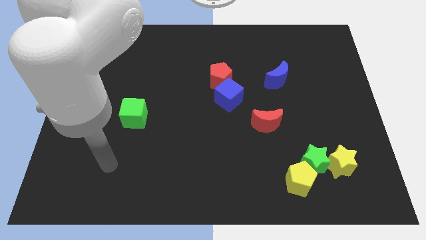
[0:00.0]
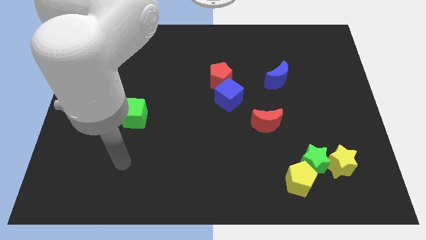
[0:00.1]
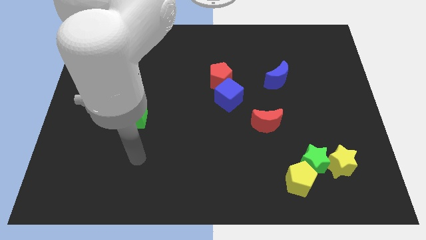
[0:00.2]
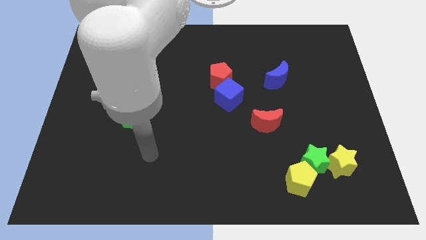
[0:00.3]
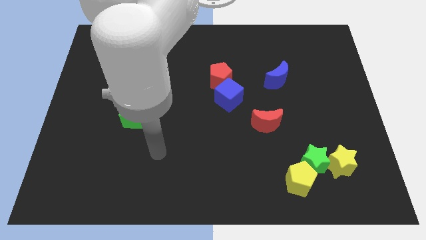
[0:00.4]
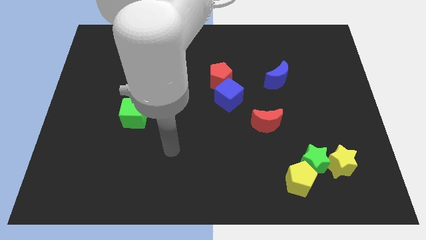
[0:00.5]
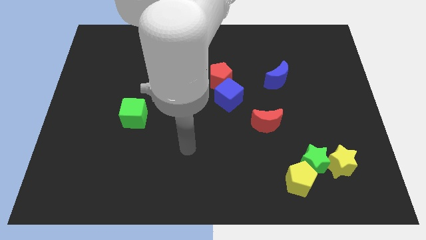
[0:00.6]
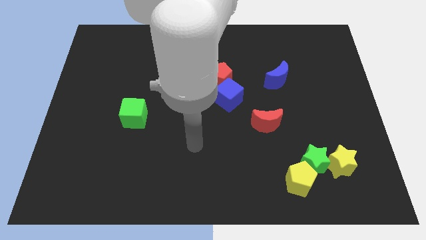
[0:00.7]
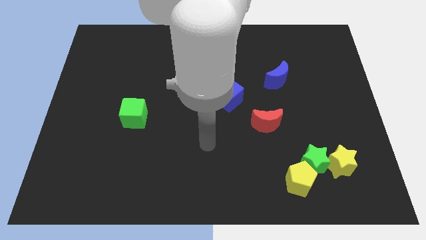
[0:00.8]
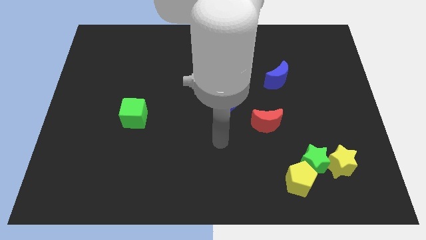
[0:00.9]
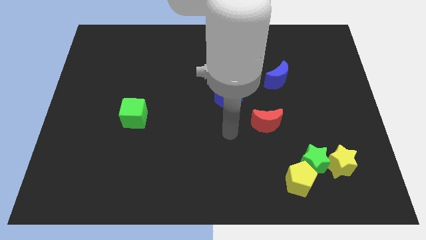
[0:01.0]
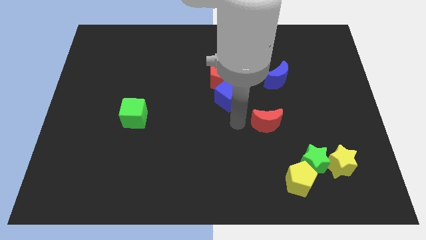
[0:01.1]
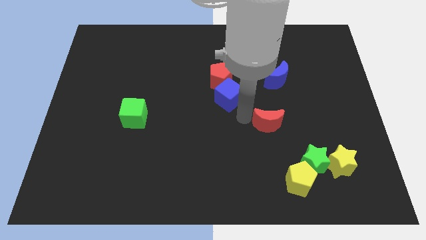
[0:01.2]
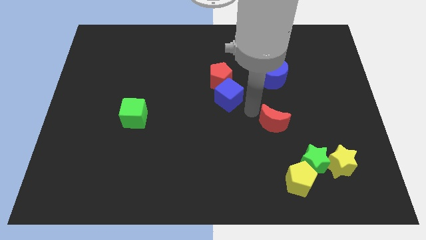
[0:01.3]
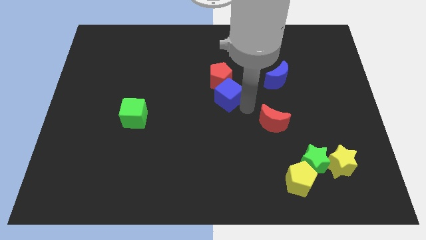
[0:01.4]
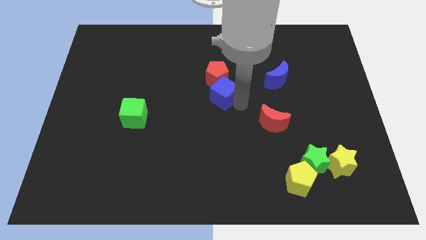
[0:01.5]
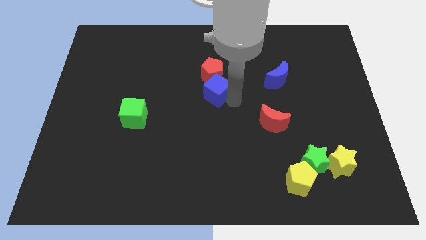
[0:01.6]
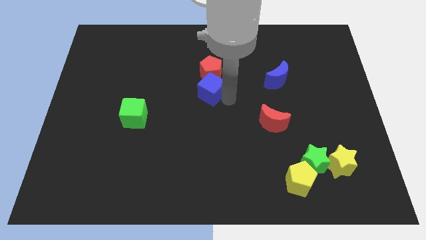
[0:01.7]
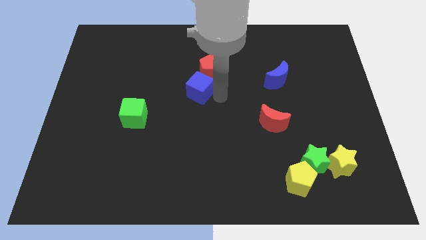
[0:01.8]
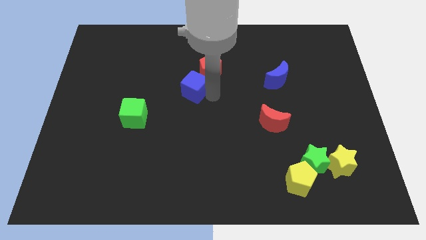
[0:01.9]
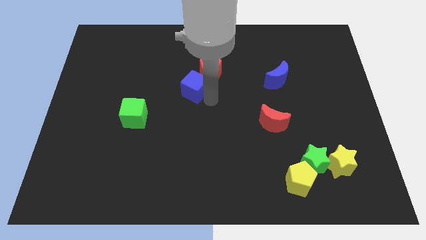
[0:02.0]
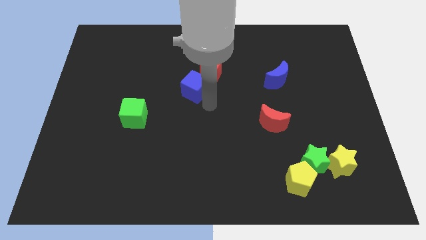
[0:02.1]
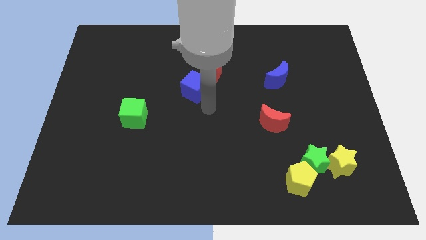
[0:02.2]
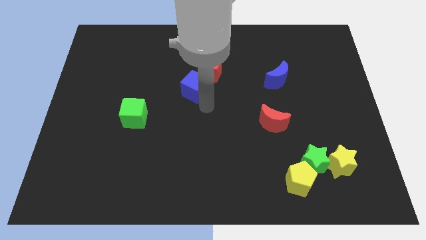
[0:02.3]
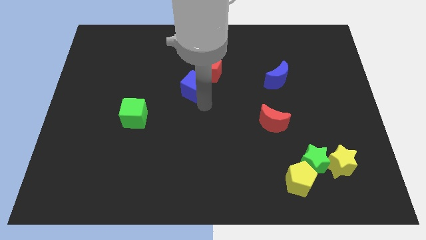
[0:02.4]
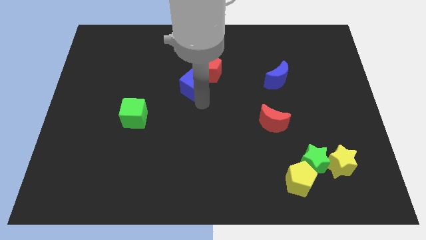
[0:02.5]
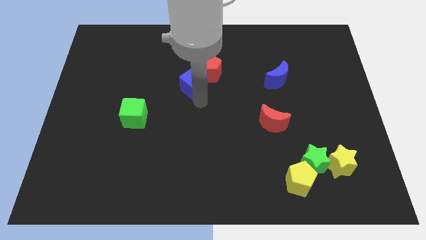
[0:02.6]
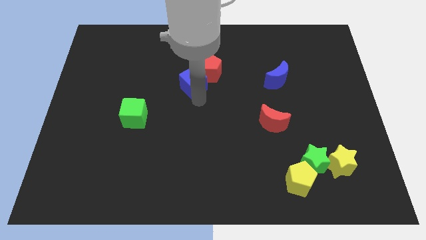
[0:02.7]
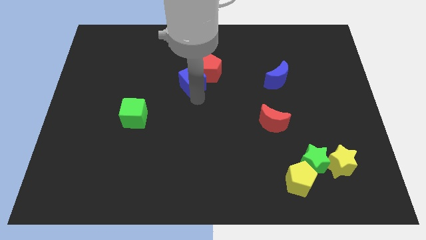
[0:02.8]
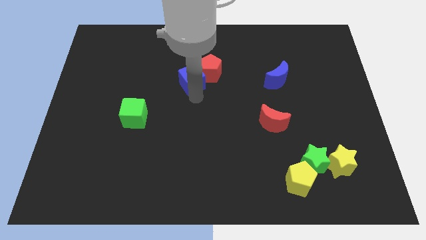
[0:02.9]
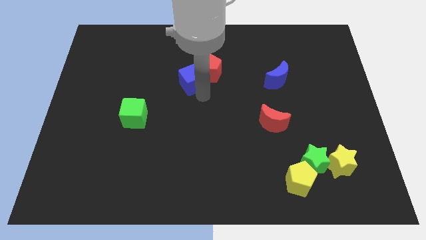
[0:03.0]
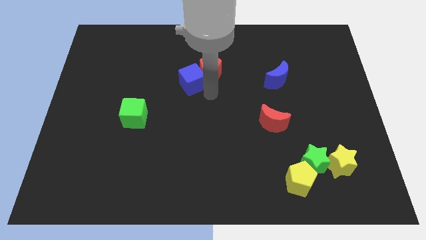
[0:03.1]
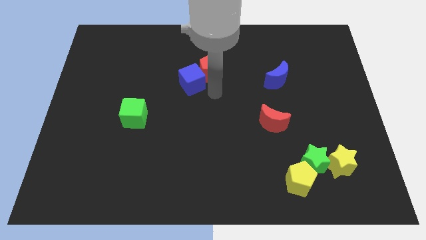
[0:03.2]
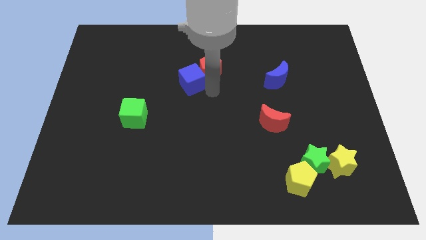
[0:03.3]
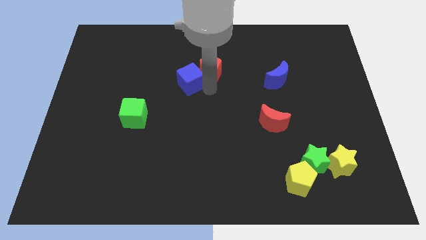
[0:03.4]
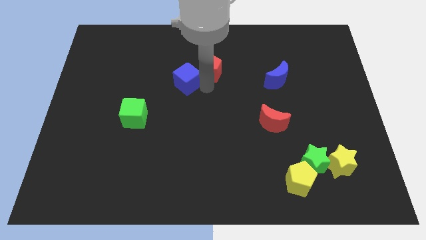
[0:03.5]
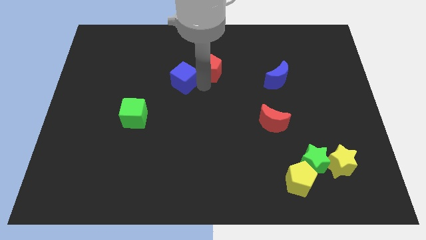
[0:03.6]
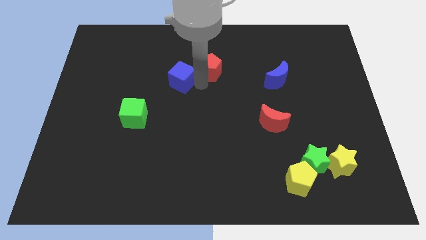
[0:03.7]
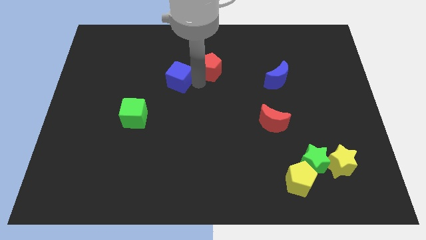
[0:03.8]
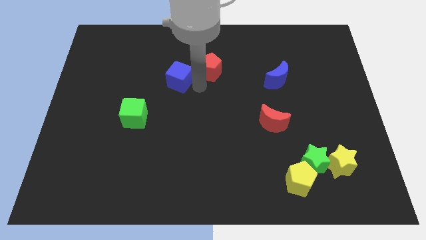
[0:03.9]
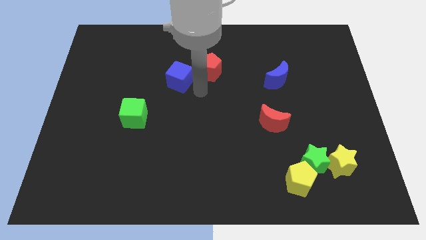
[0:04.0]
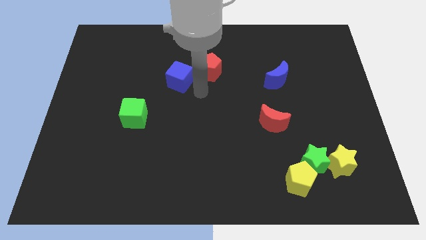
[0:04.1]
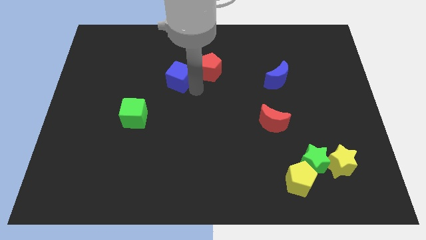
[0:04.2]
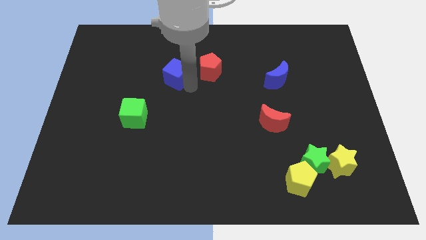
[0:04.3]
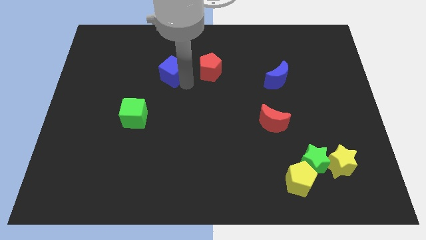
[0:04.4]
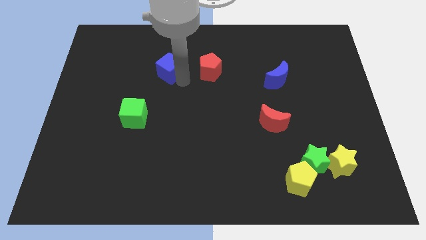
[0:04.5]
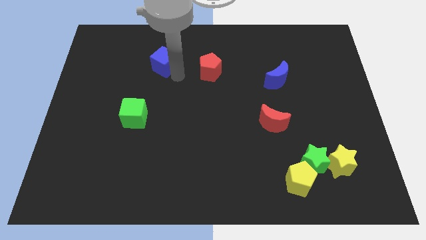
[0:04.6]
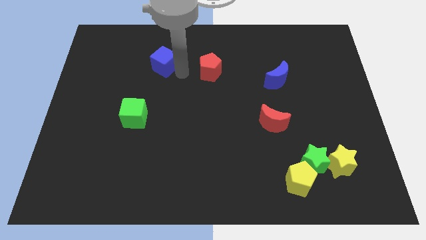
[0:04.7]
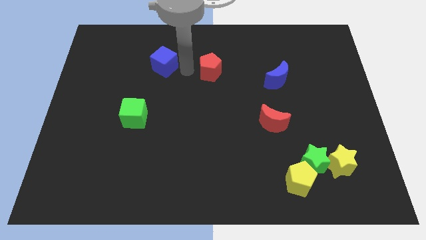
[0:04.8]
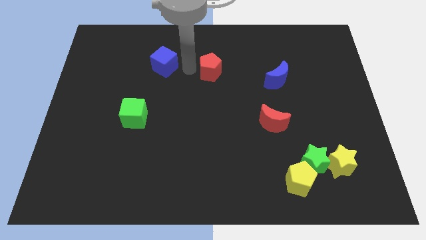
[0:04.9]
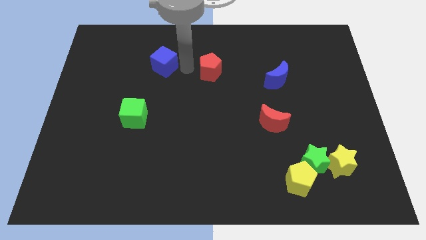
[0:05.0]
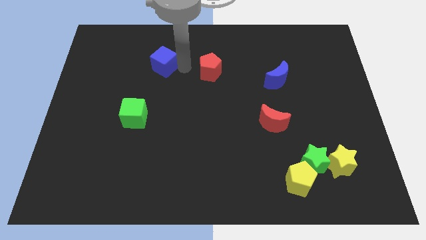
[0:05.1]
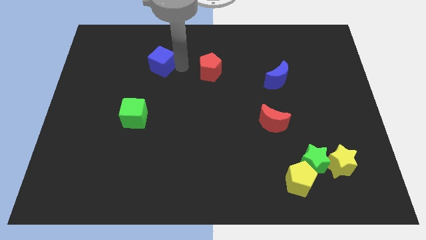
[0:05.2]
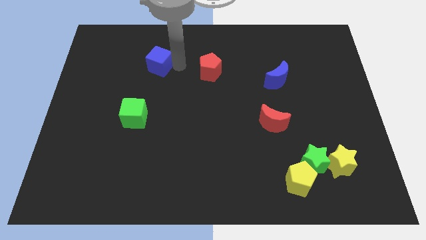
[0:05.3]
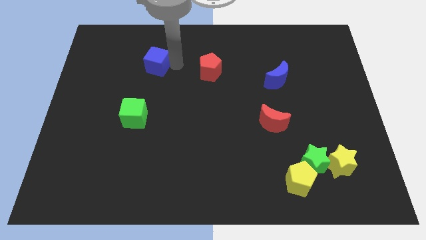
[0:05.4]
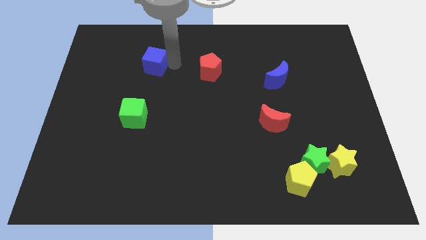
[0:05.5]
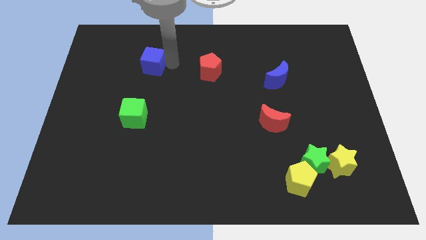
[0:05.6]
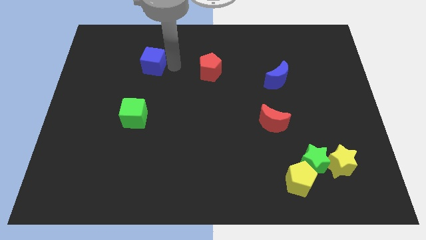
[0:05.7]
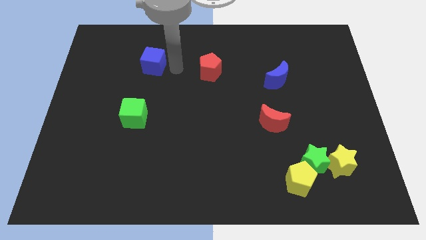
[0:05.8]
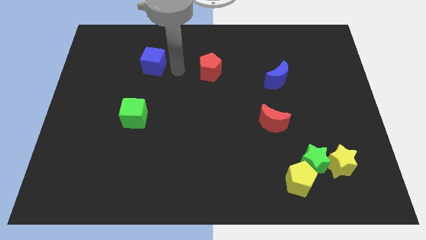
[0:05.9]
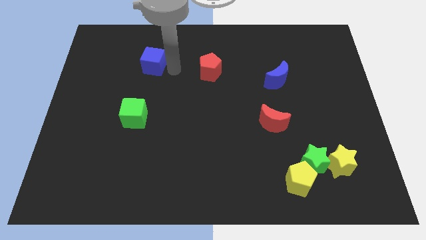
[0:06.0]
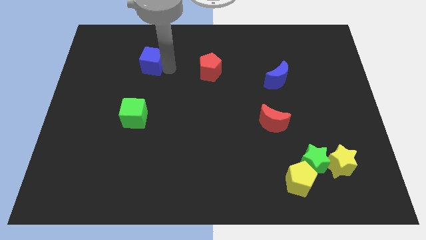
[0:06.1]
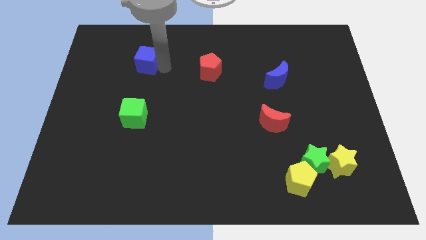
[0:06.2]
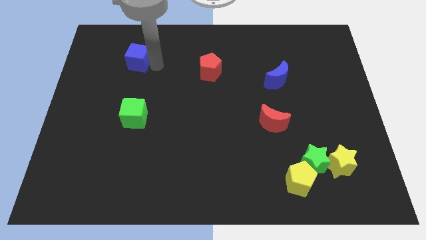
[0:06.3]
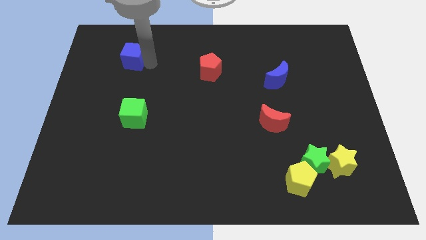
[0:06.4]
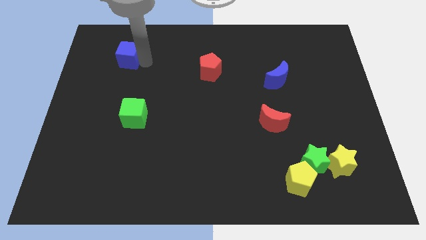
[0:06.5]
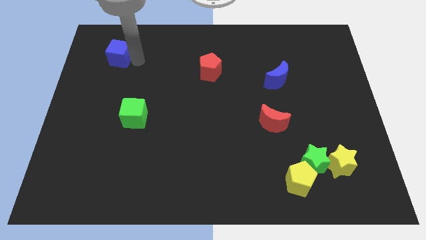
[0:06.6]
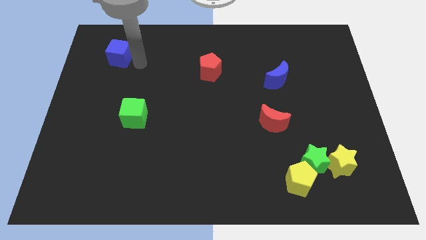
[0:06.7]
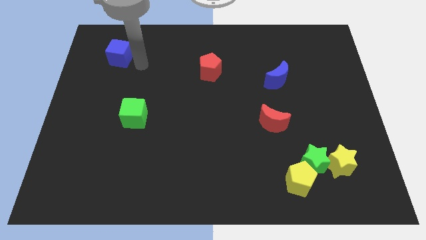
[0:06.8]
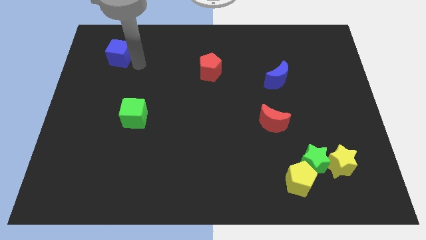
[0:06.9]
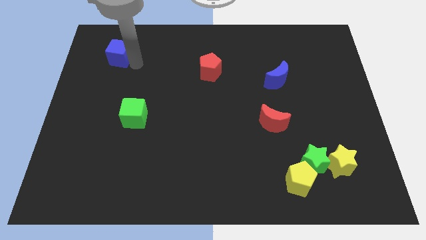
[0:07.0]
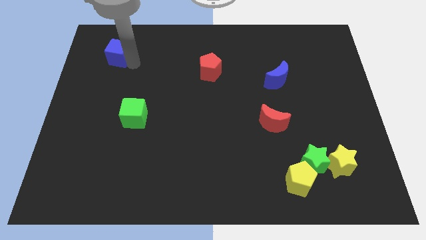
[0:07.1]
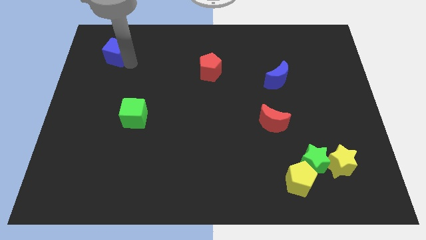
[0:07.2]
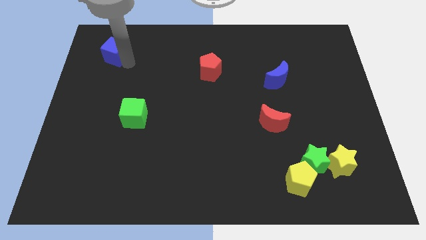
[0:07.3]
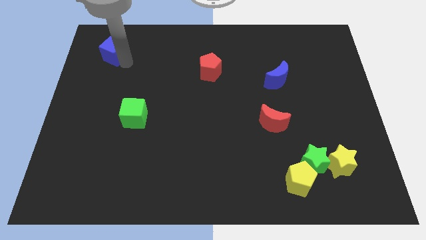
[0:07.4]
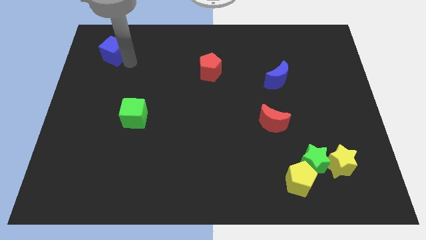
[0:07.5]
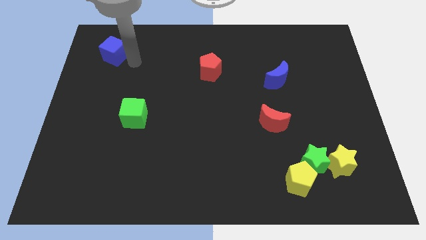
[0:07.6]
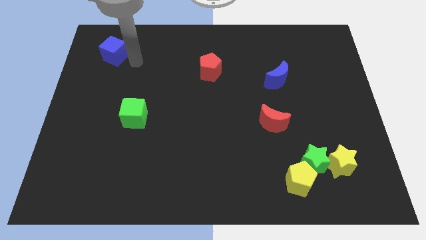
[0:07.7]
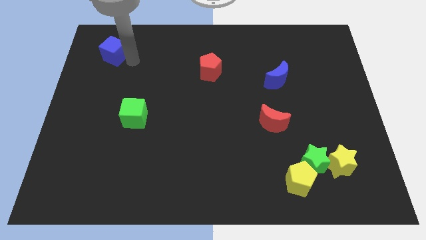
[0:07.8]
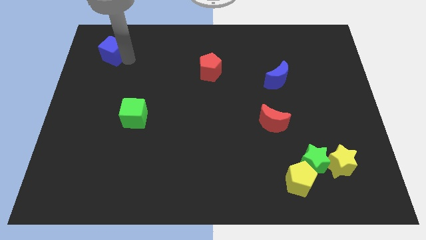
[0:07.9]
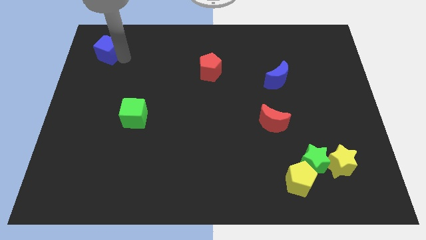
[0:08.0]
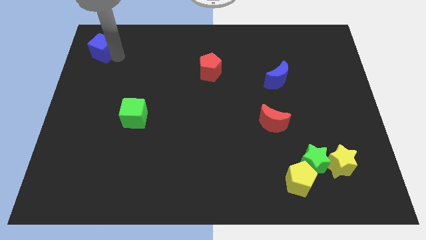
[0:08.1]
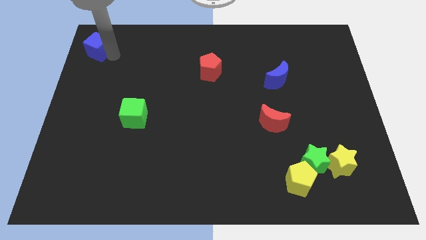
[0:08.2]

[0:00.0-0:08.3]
push the blue cube to the top left of the board
